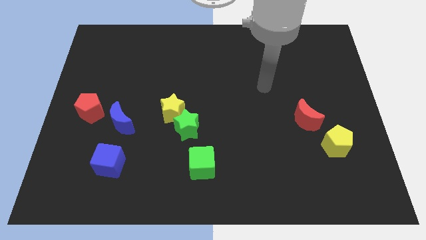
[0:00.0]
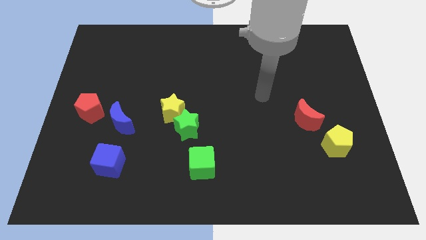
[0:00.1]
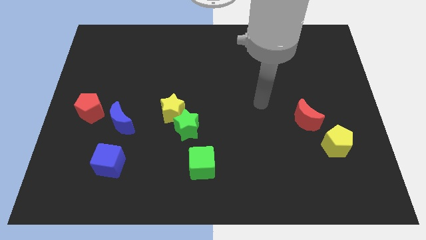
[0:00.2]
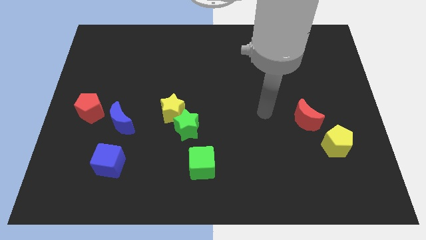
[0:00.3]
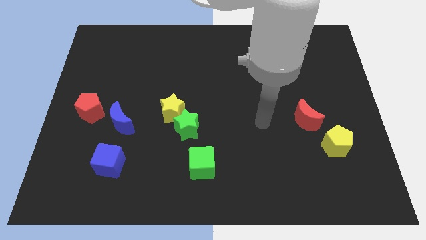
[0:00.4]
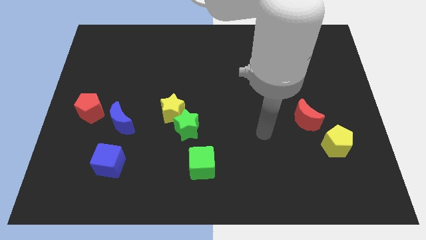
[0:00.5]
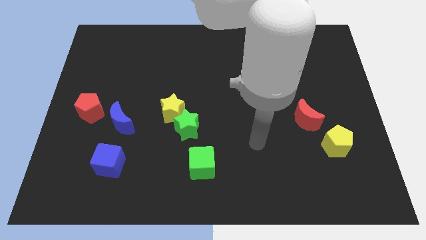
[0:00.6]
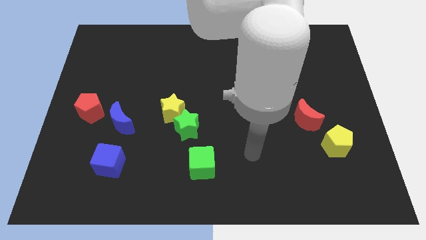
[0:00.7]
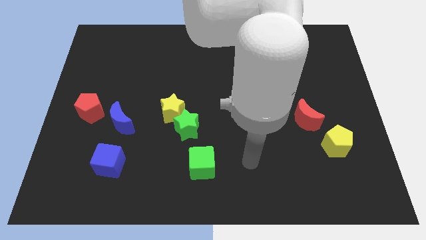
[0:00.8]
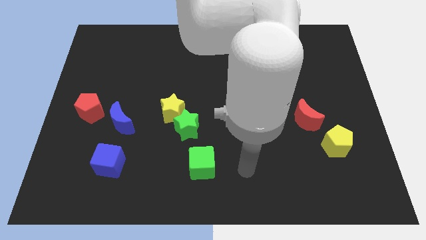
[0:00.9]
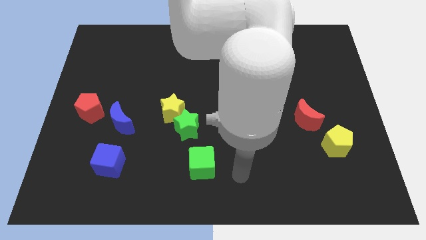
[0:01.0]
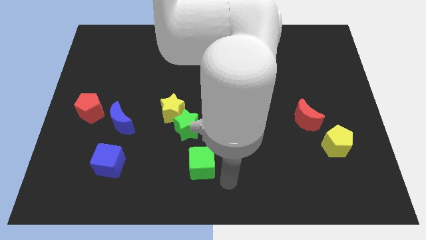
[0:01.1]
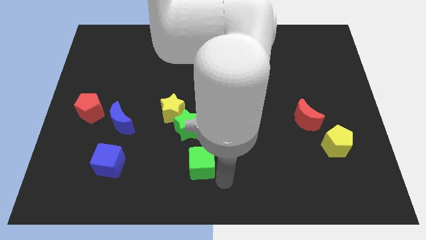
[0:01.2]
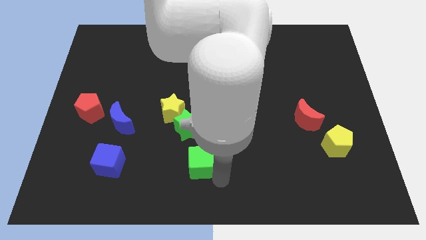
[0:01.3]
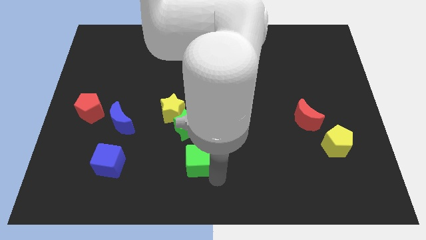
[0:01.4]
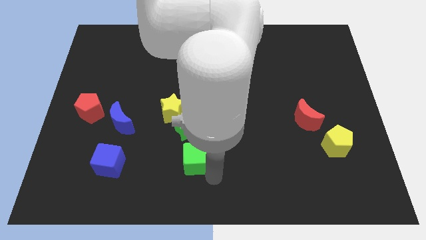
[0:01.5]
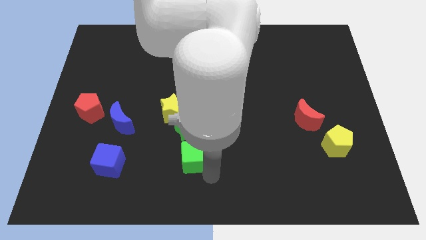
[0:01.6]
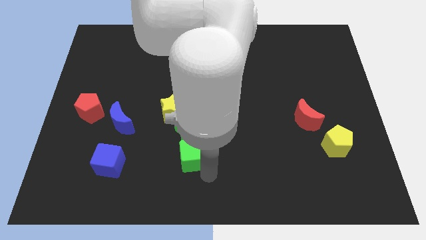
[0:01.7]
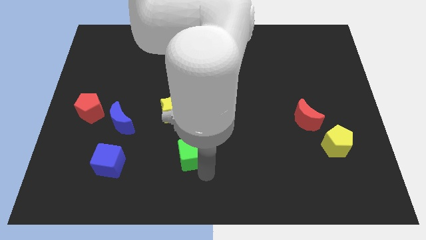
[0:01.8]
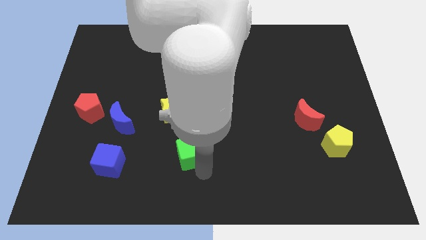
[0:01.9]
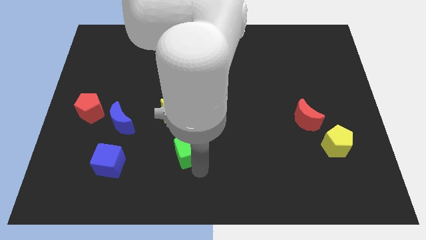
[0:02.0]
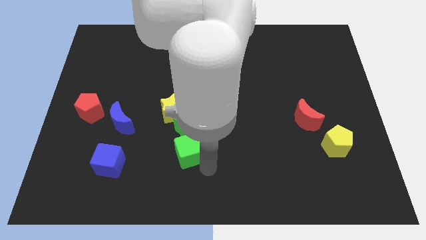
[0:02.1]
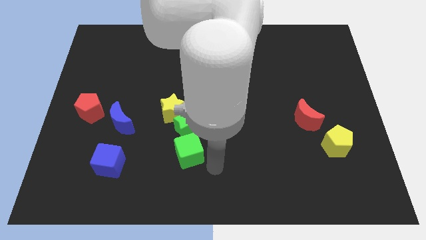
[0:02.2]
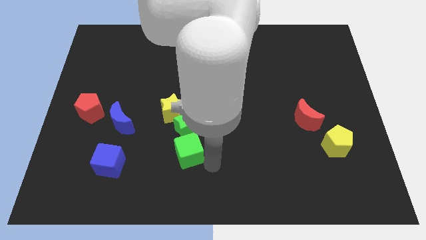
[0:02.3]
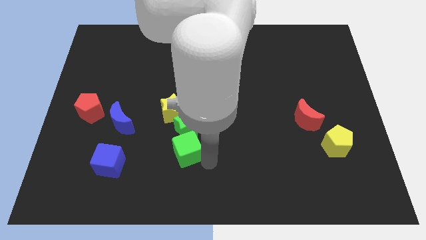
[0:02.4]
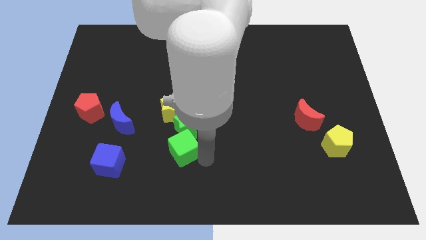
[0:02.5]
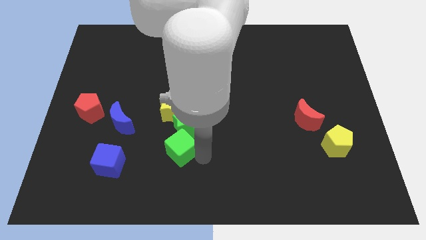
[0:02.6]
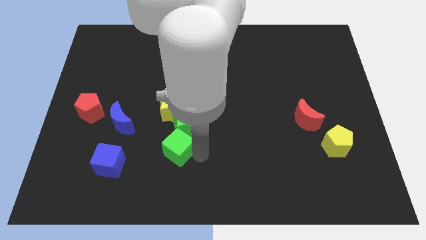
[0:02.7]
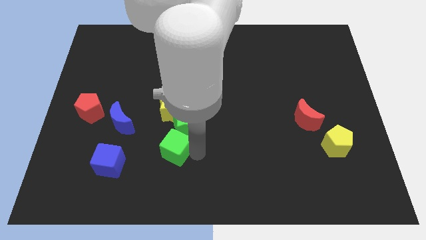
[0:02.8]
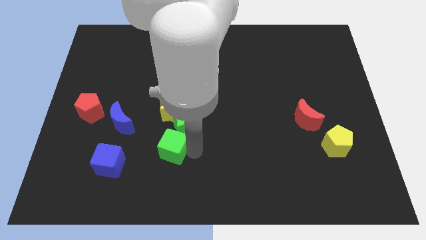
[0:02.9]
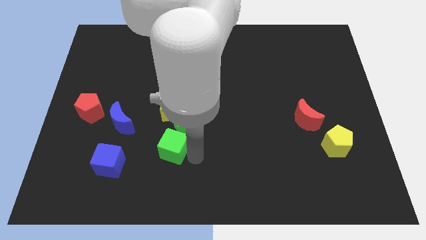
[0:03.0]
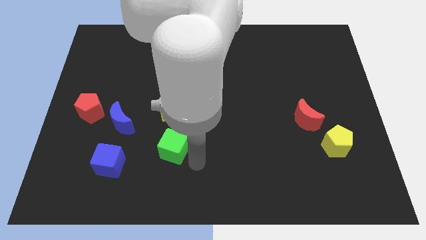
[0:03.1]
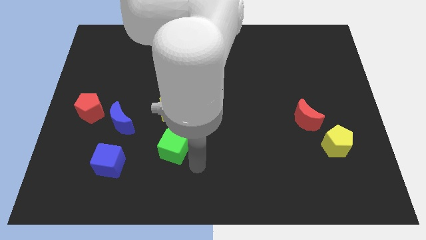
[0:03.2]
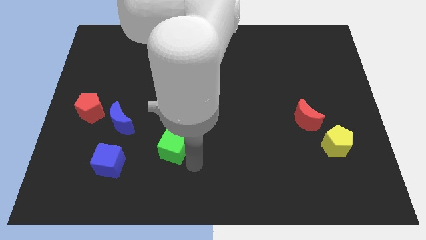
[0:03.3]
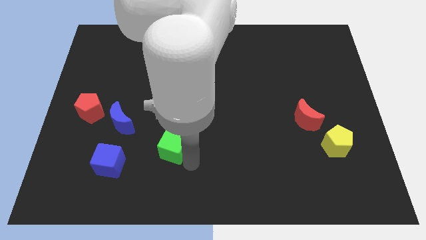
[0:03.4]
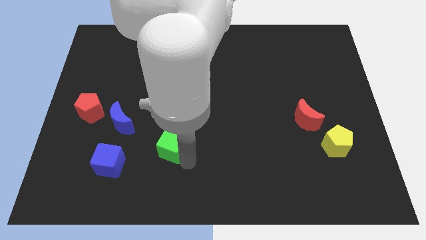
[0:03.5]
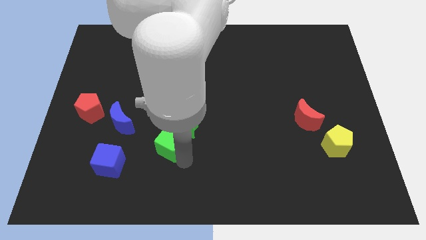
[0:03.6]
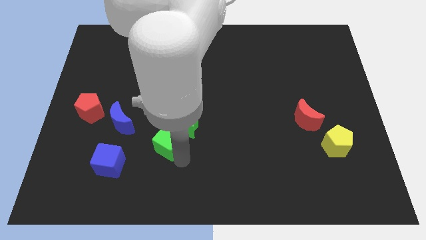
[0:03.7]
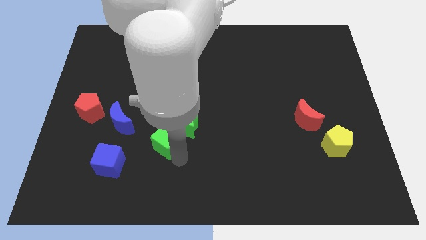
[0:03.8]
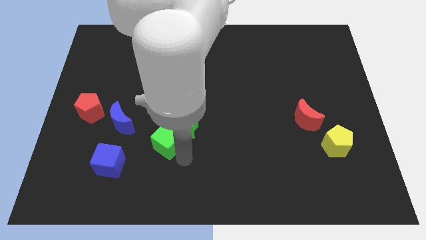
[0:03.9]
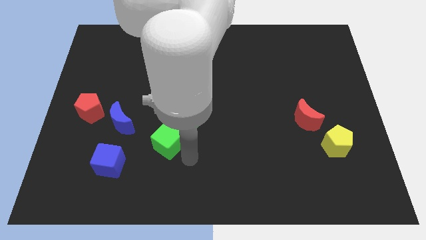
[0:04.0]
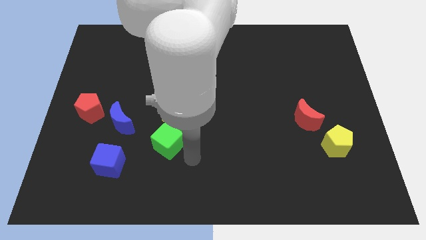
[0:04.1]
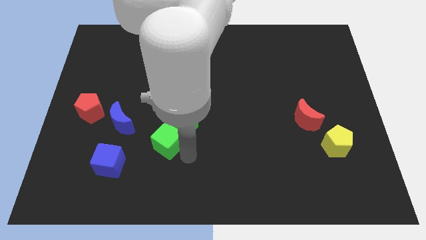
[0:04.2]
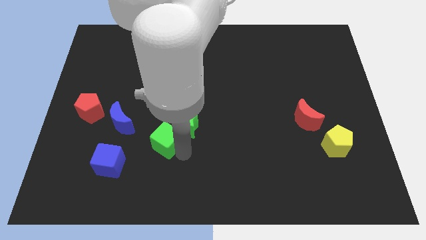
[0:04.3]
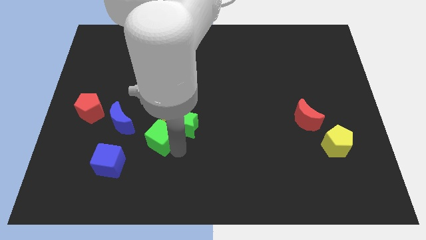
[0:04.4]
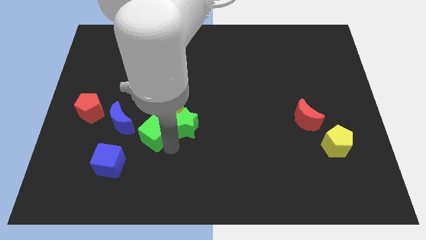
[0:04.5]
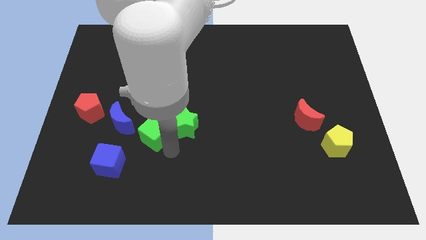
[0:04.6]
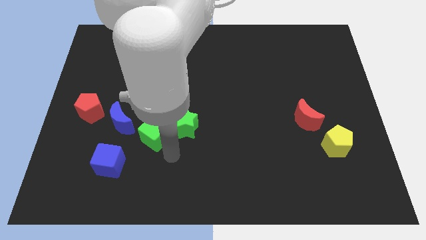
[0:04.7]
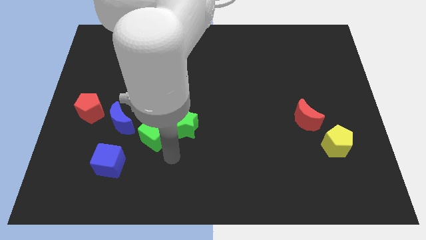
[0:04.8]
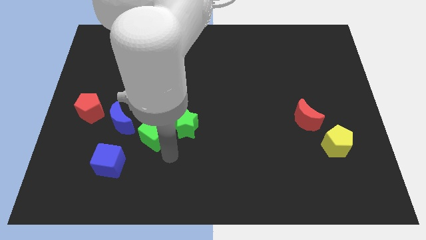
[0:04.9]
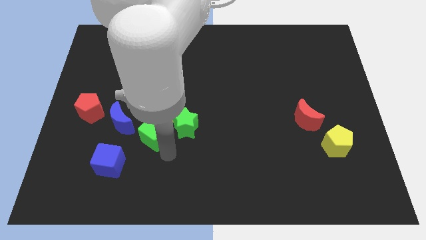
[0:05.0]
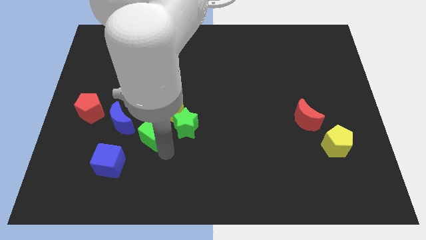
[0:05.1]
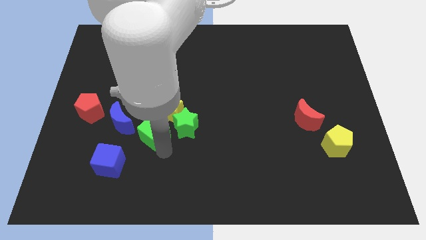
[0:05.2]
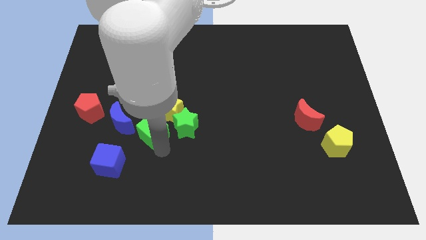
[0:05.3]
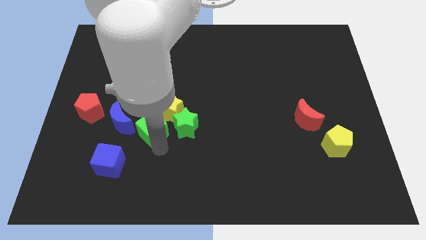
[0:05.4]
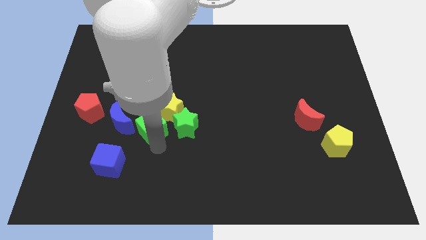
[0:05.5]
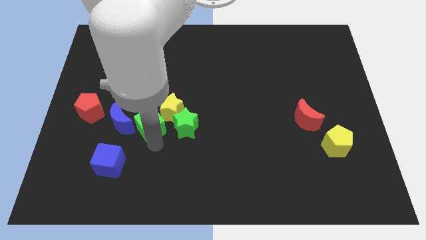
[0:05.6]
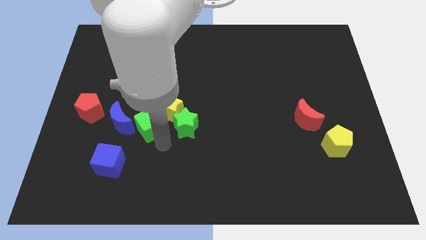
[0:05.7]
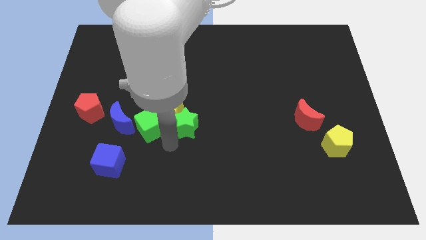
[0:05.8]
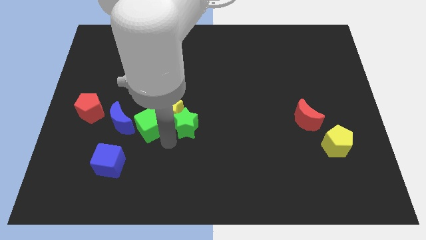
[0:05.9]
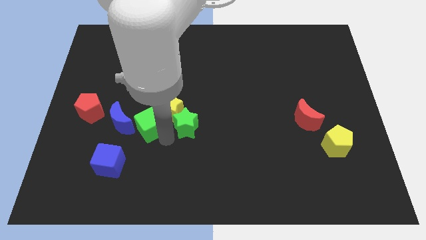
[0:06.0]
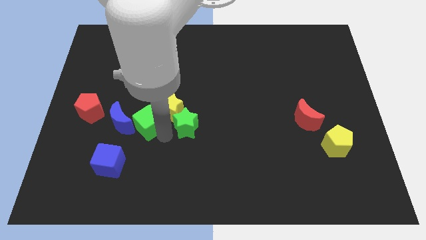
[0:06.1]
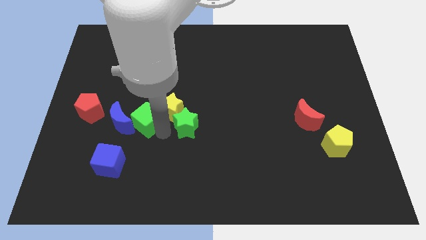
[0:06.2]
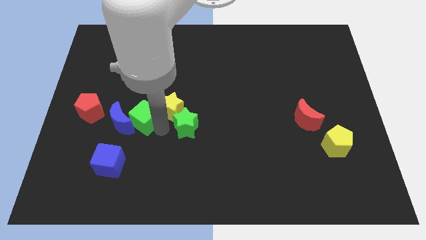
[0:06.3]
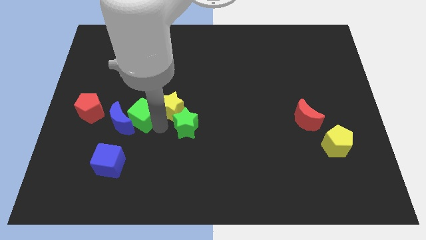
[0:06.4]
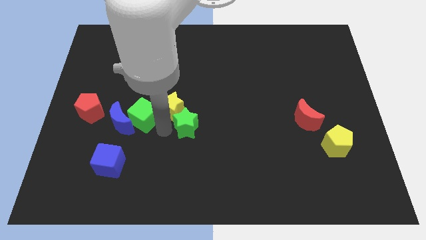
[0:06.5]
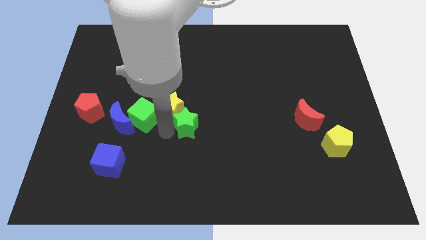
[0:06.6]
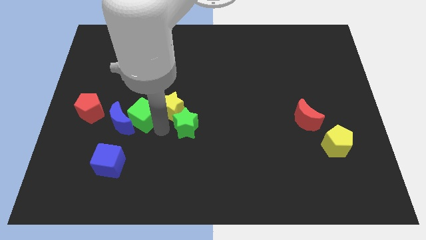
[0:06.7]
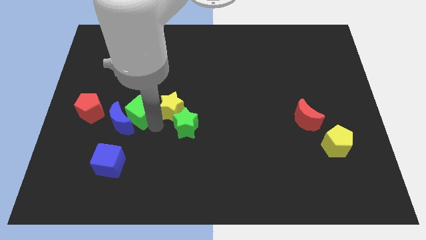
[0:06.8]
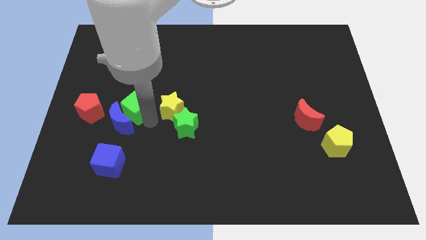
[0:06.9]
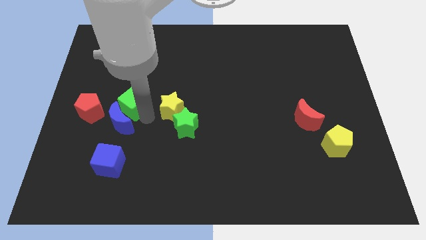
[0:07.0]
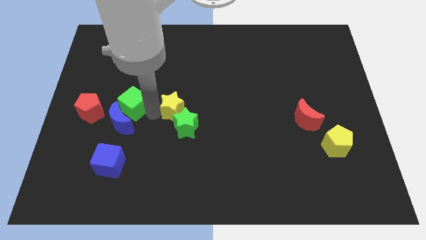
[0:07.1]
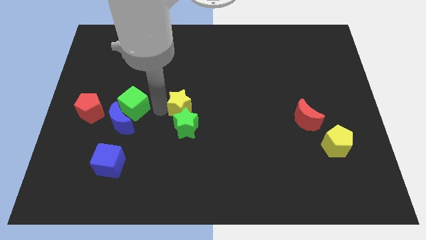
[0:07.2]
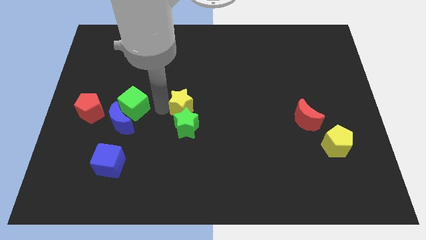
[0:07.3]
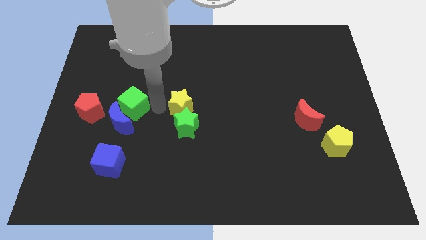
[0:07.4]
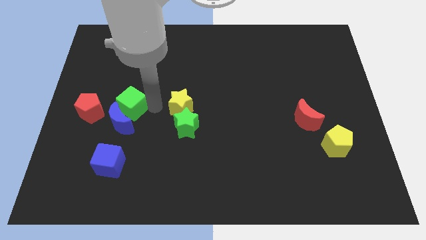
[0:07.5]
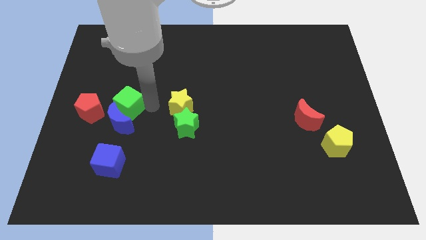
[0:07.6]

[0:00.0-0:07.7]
slide the green cube diagonally up and to the left of the blue moon
